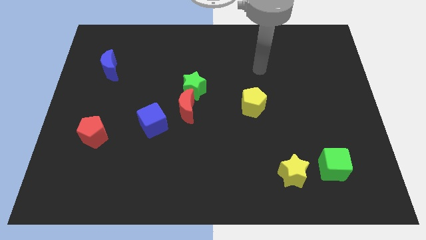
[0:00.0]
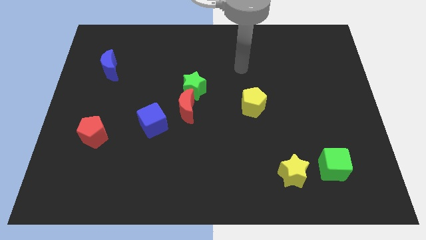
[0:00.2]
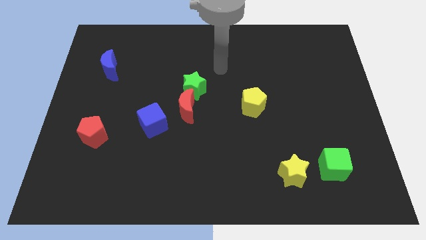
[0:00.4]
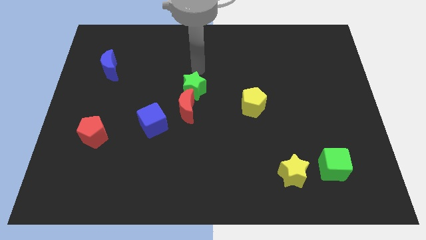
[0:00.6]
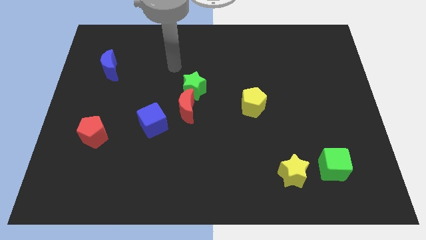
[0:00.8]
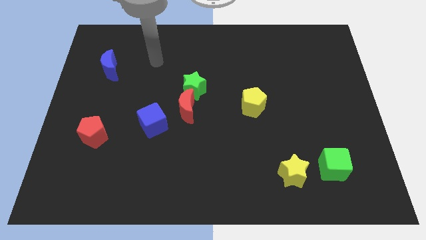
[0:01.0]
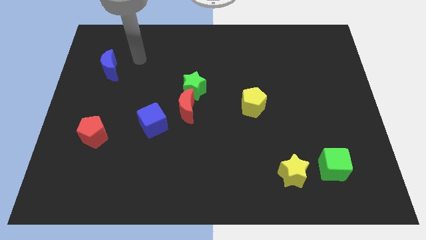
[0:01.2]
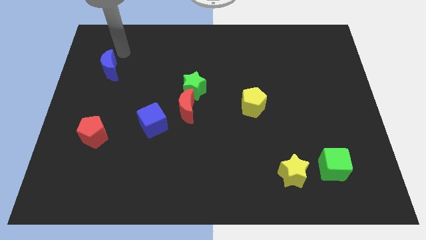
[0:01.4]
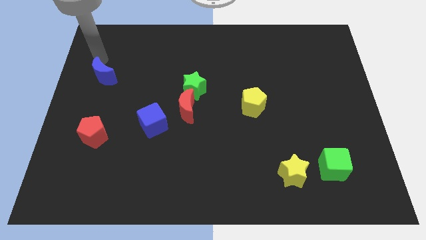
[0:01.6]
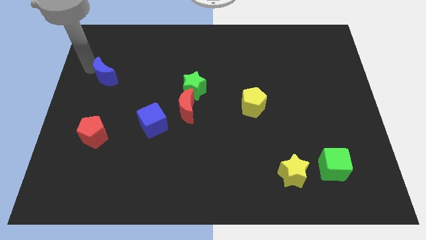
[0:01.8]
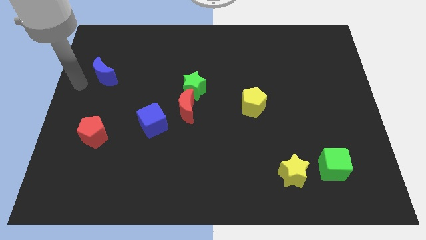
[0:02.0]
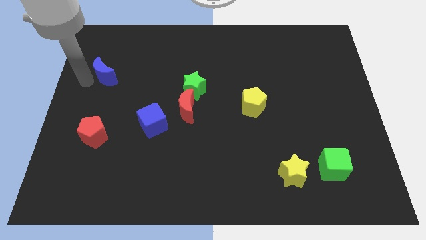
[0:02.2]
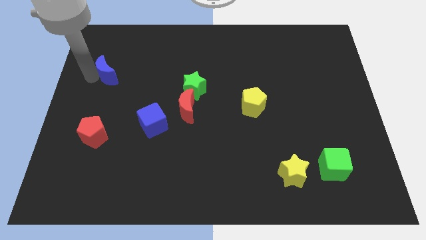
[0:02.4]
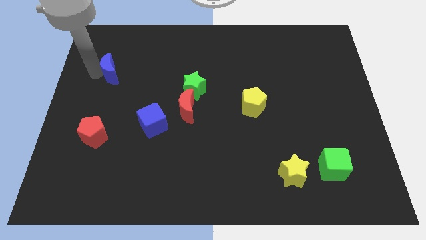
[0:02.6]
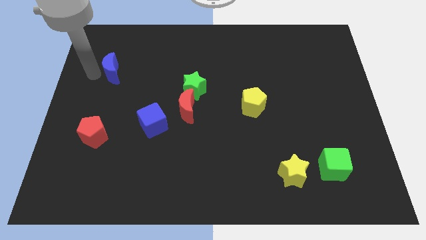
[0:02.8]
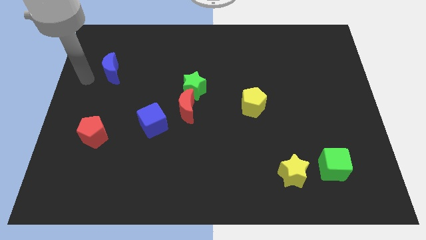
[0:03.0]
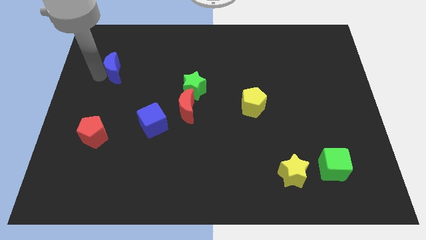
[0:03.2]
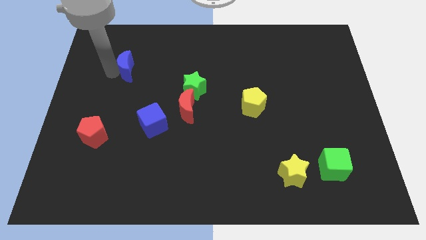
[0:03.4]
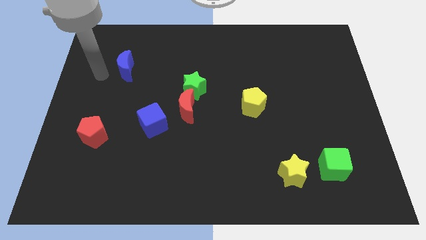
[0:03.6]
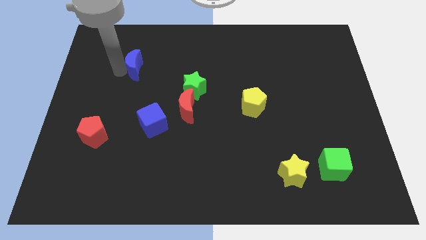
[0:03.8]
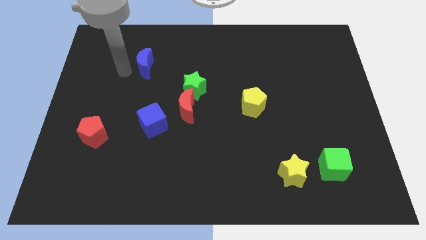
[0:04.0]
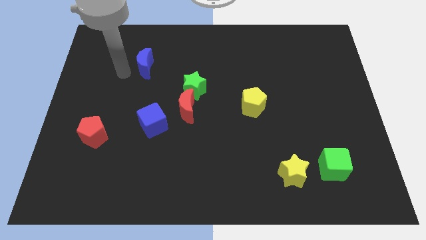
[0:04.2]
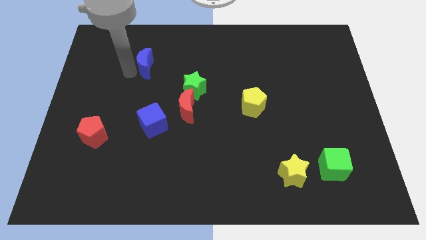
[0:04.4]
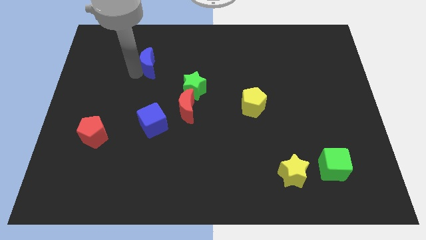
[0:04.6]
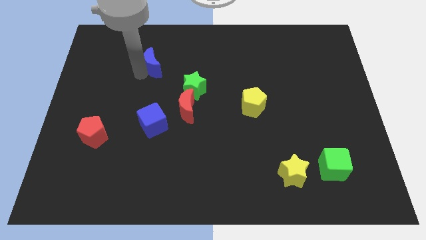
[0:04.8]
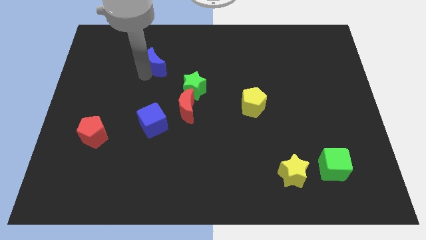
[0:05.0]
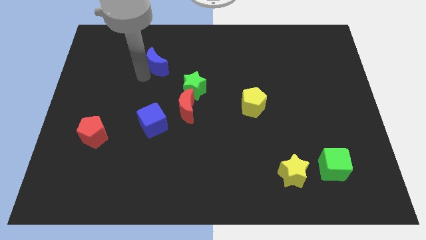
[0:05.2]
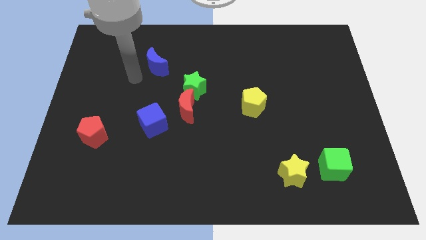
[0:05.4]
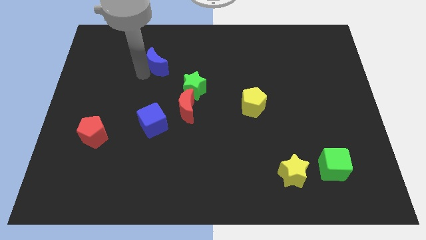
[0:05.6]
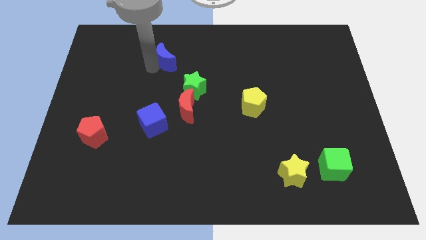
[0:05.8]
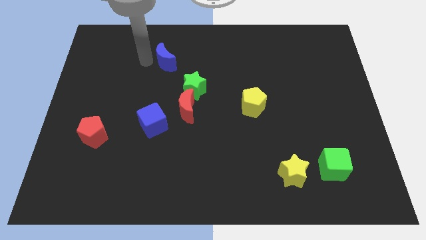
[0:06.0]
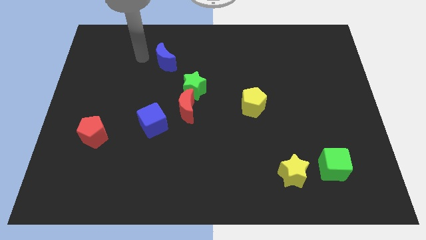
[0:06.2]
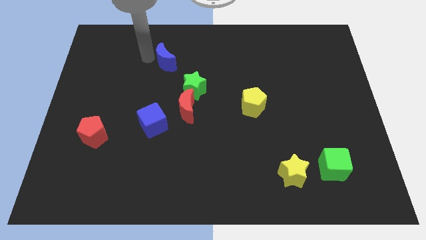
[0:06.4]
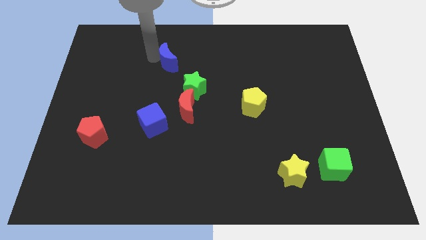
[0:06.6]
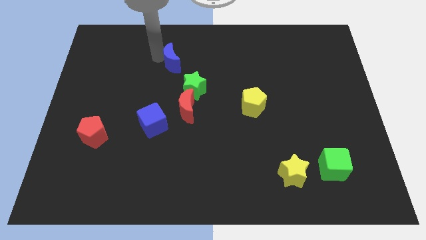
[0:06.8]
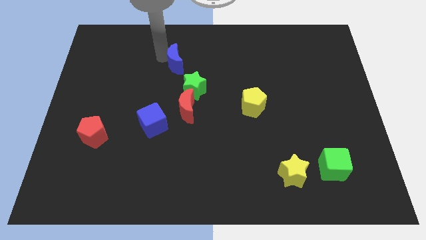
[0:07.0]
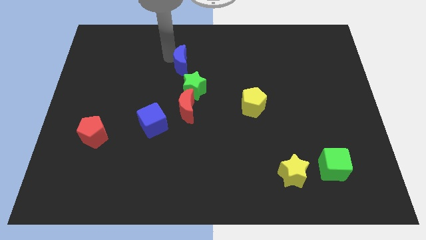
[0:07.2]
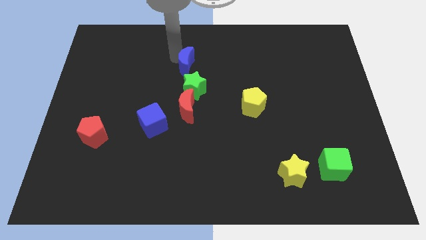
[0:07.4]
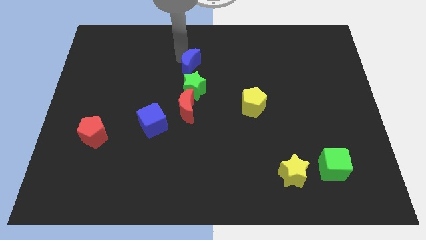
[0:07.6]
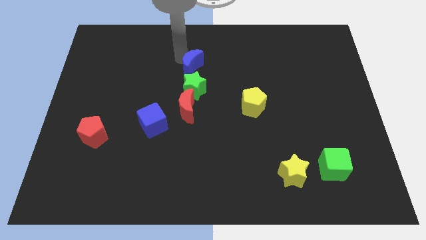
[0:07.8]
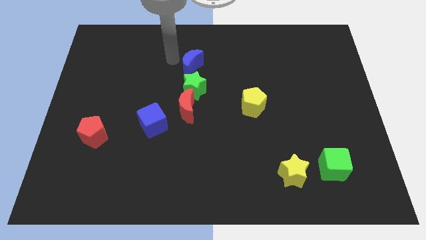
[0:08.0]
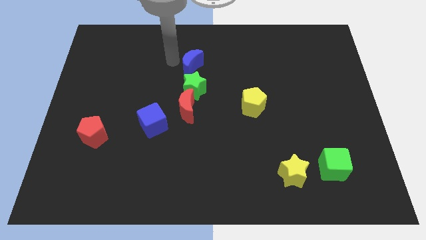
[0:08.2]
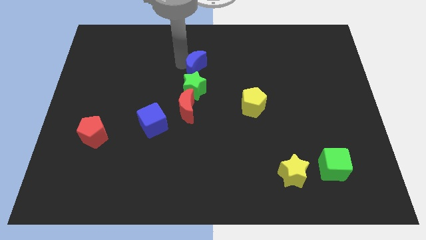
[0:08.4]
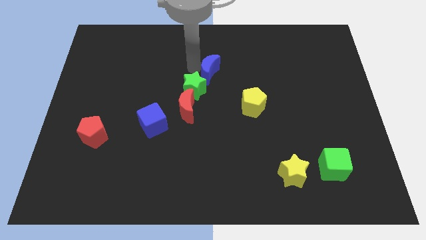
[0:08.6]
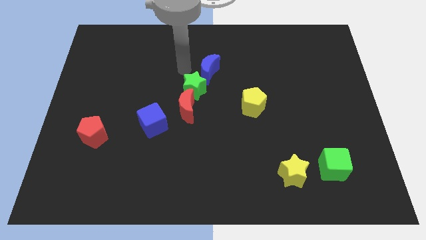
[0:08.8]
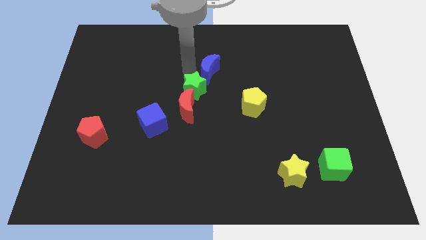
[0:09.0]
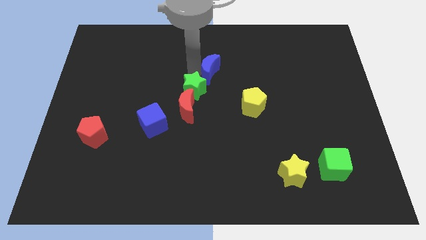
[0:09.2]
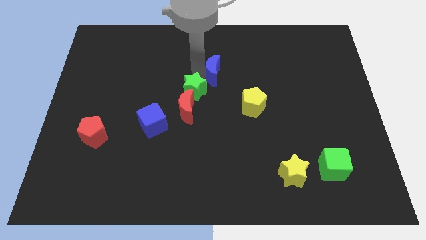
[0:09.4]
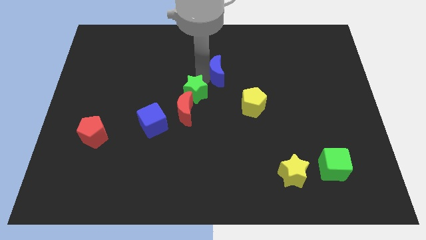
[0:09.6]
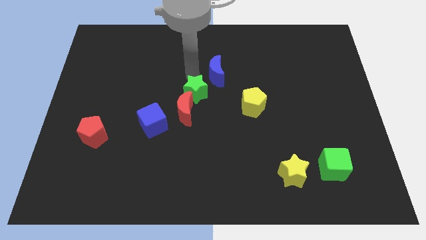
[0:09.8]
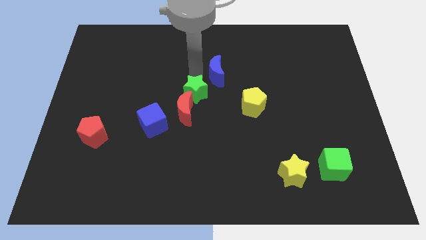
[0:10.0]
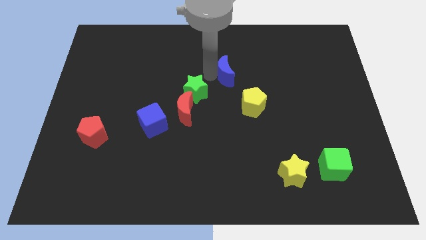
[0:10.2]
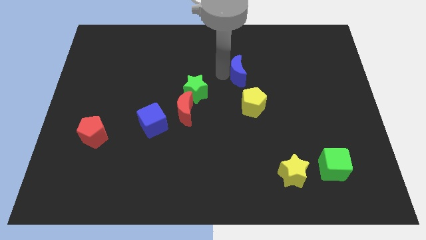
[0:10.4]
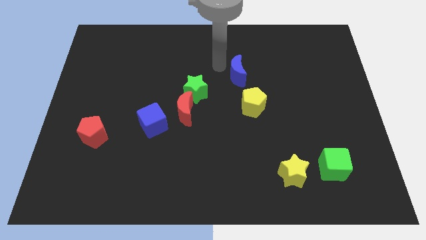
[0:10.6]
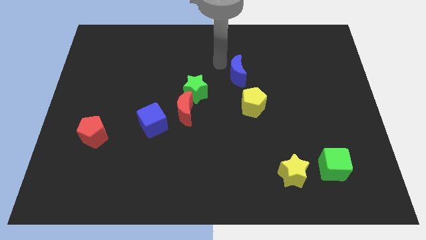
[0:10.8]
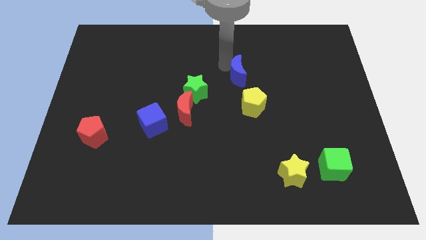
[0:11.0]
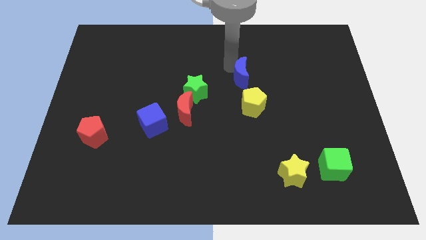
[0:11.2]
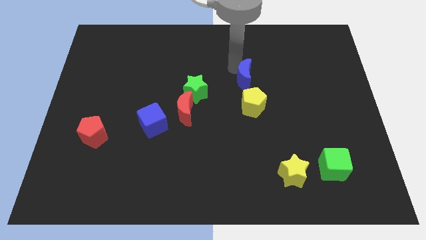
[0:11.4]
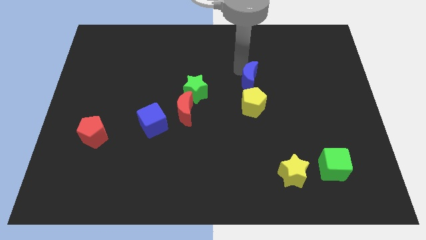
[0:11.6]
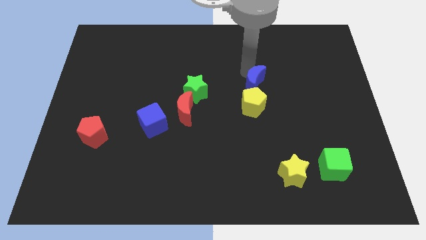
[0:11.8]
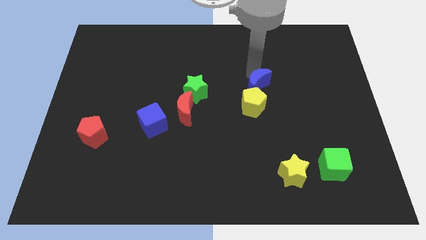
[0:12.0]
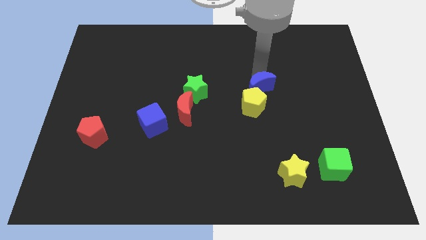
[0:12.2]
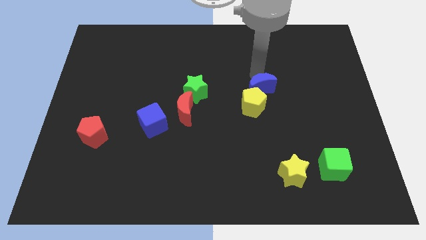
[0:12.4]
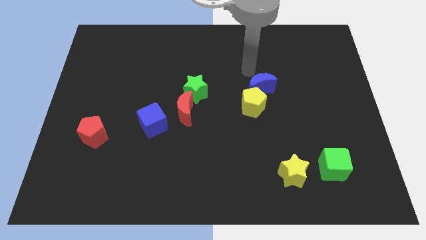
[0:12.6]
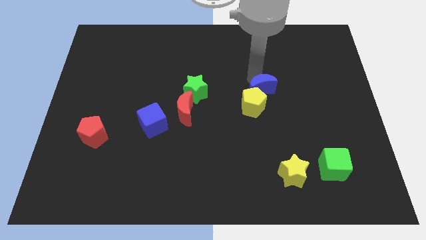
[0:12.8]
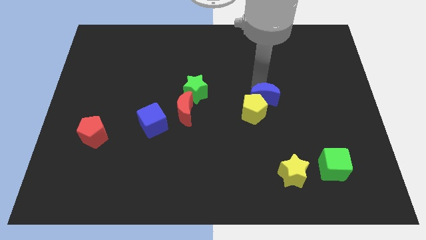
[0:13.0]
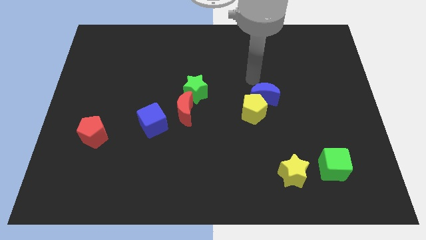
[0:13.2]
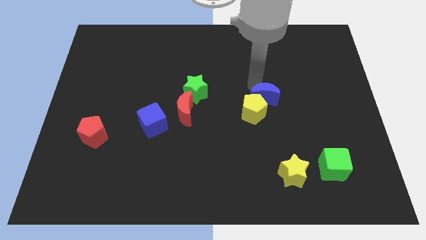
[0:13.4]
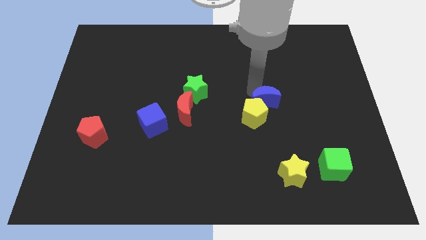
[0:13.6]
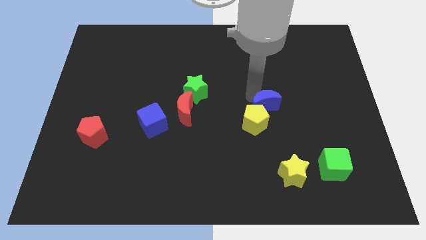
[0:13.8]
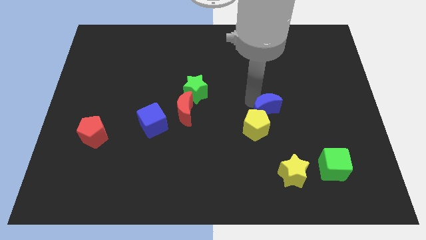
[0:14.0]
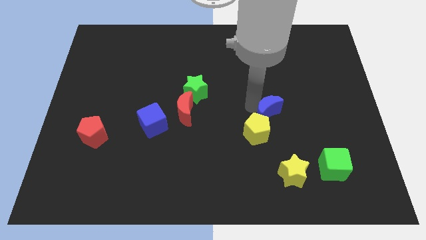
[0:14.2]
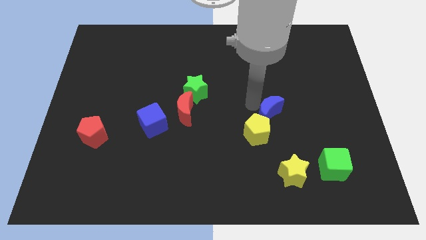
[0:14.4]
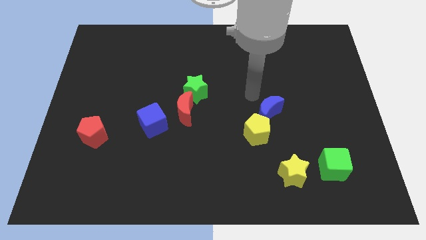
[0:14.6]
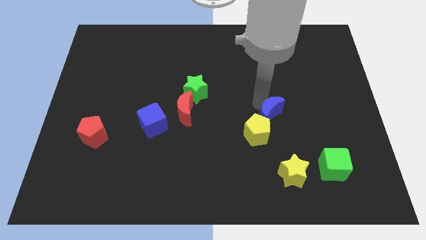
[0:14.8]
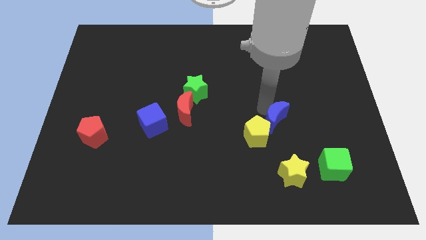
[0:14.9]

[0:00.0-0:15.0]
push the blue moon to the top of the yellow star

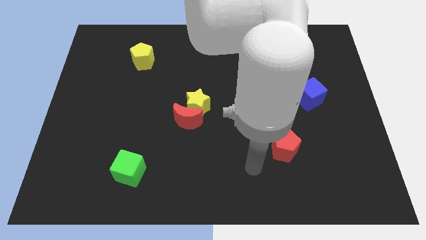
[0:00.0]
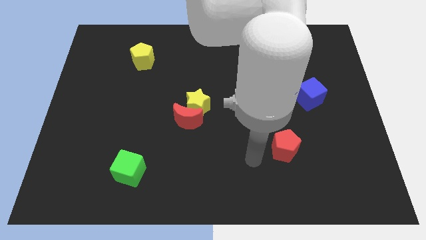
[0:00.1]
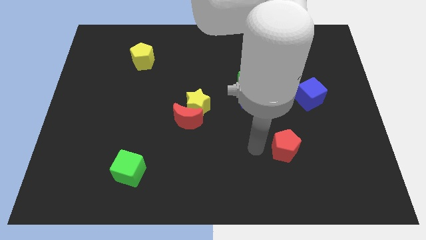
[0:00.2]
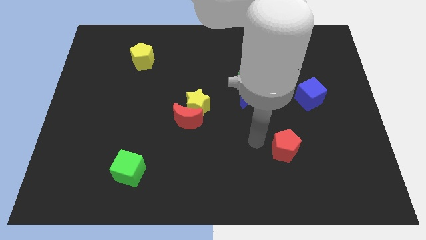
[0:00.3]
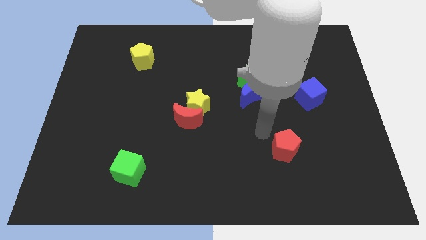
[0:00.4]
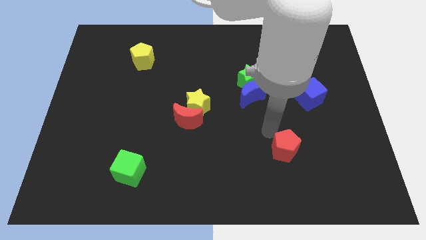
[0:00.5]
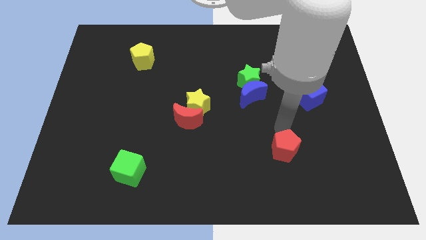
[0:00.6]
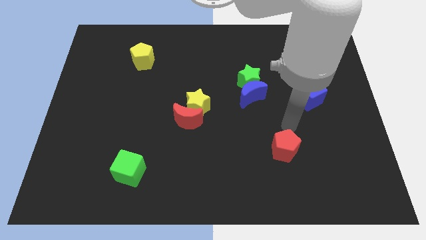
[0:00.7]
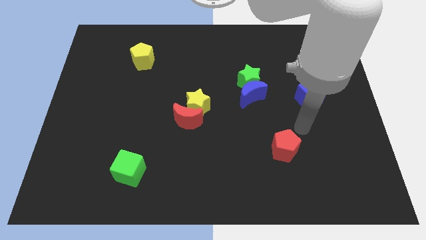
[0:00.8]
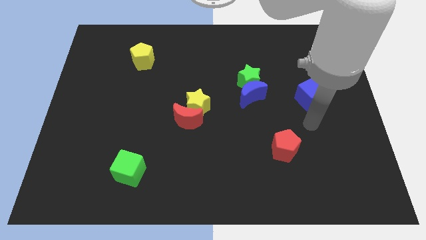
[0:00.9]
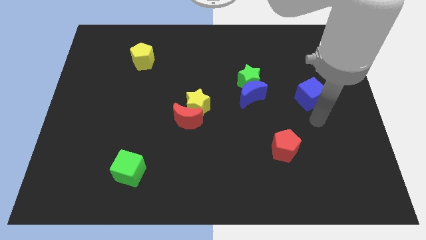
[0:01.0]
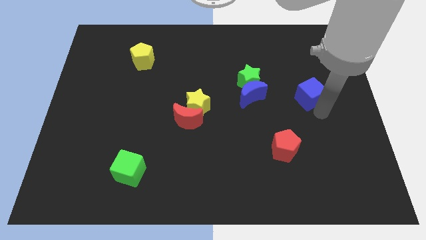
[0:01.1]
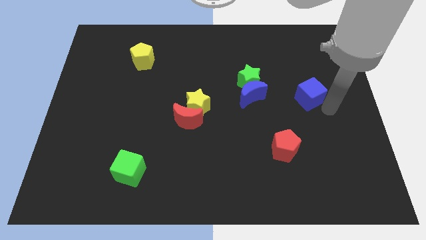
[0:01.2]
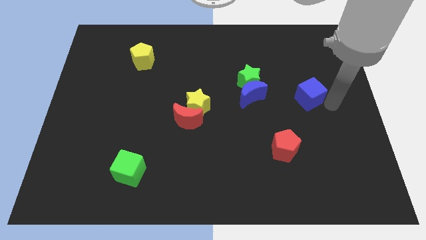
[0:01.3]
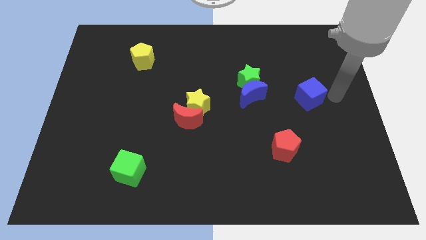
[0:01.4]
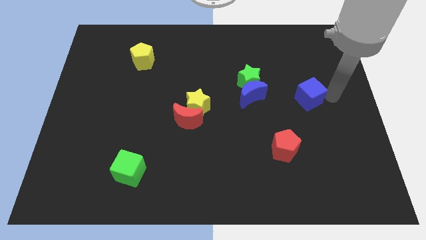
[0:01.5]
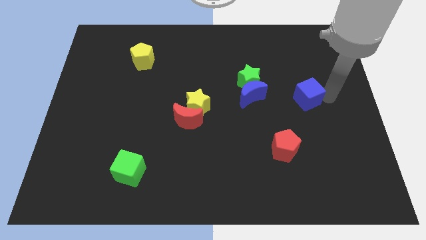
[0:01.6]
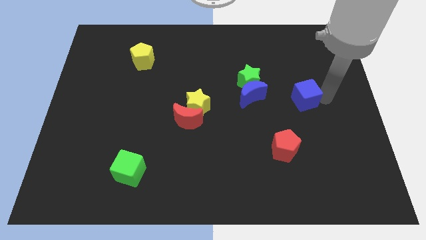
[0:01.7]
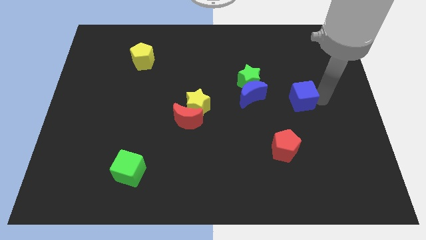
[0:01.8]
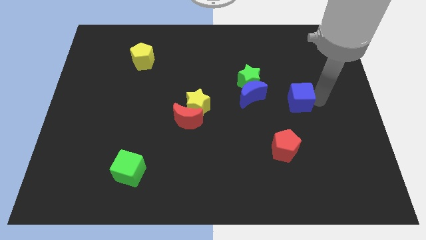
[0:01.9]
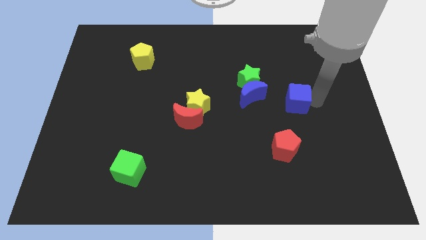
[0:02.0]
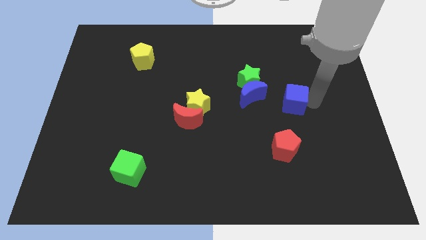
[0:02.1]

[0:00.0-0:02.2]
move the blue cube to the bottom right side of the green star
